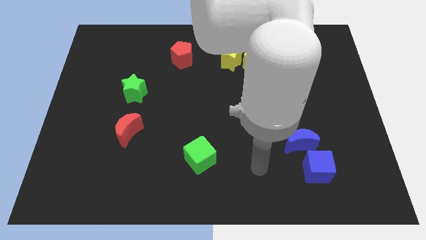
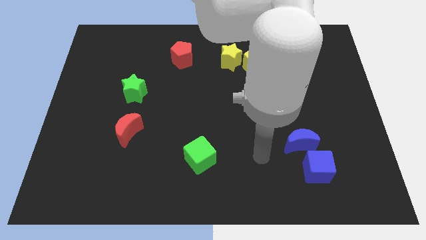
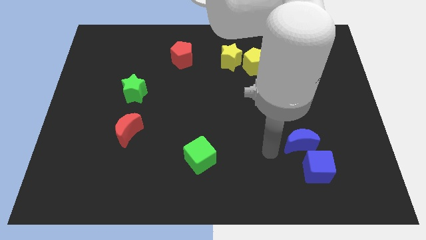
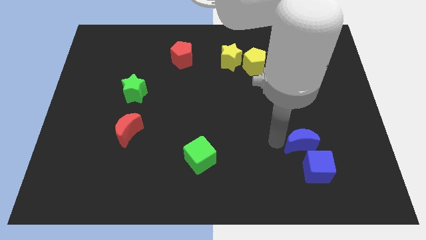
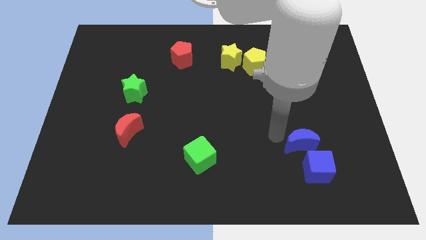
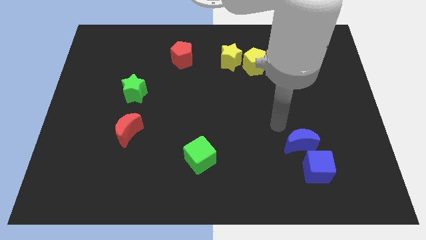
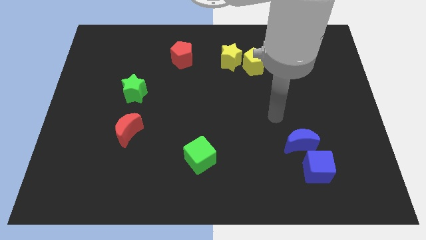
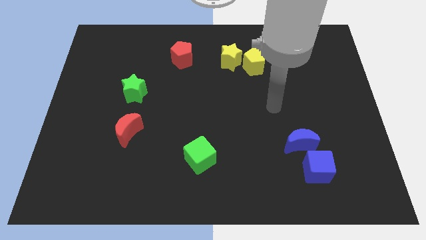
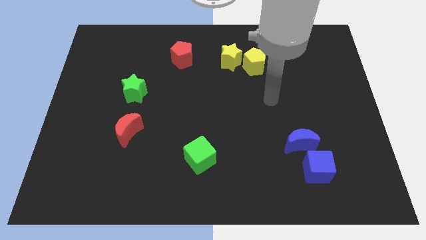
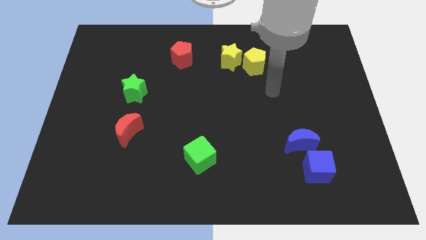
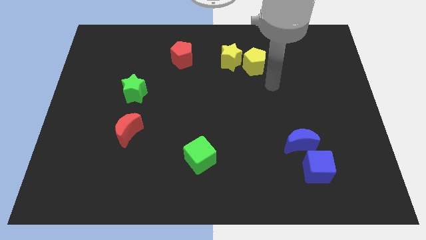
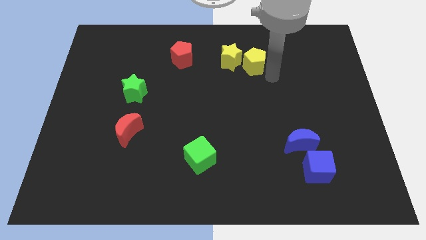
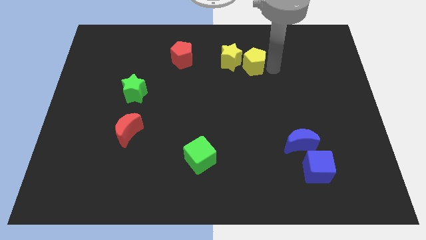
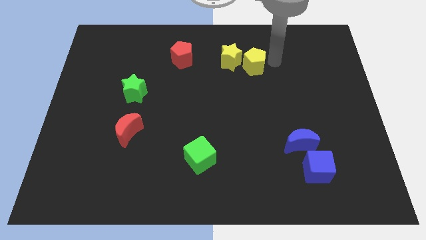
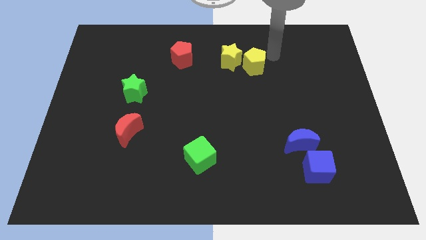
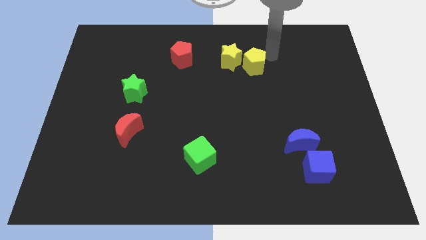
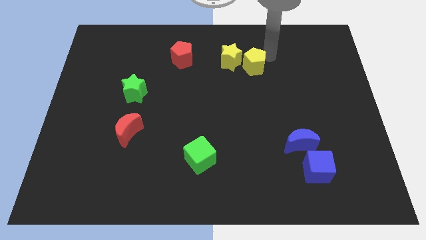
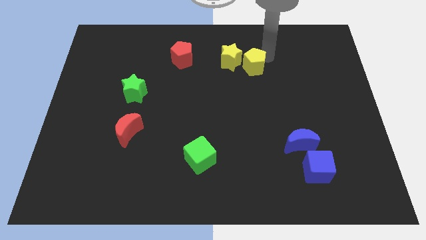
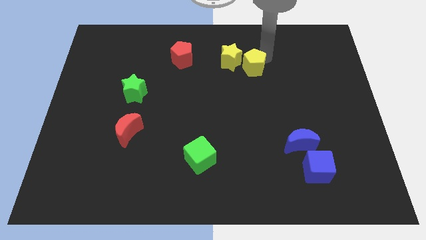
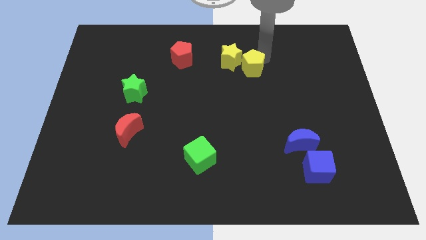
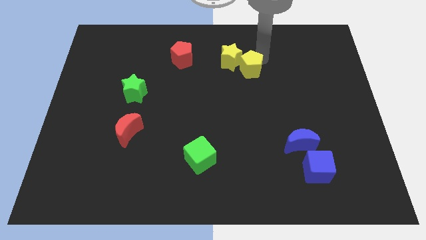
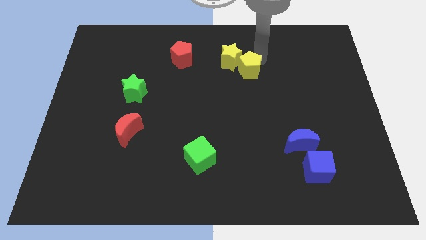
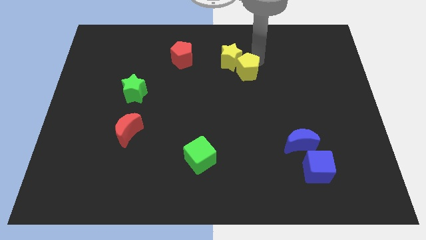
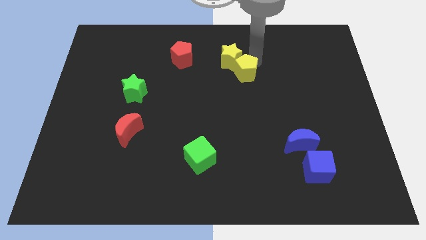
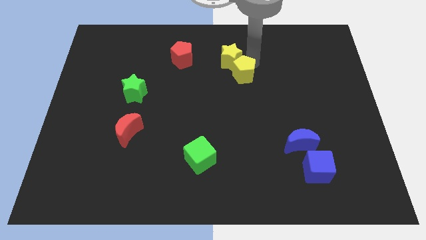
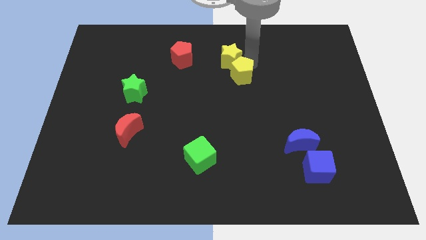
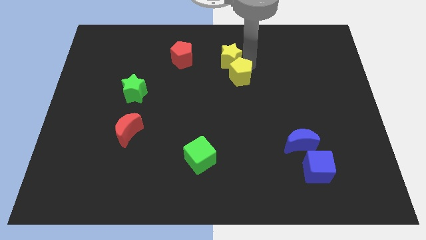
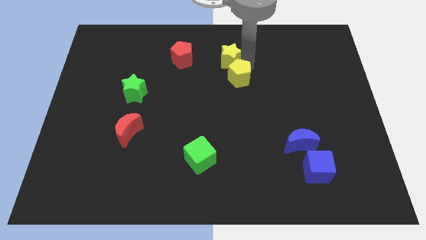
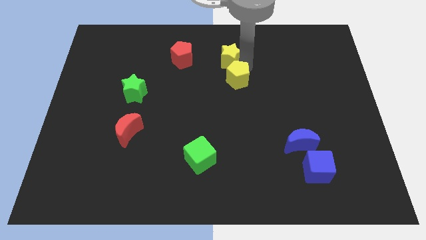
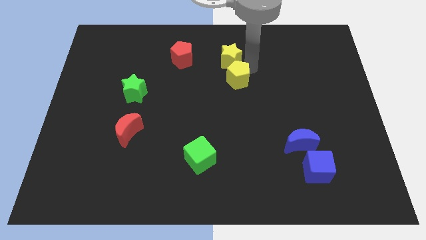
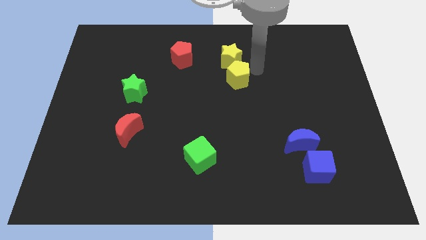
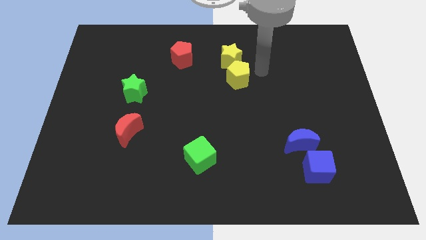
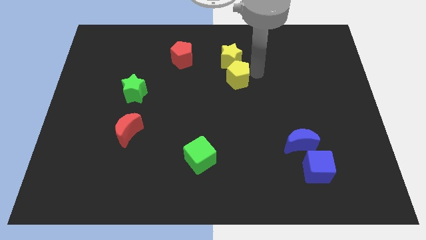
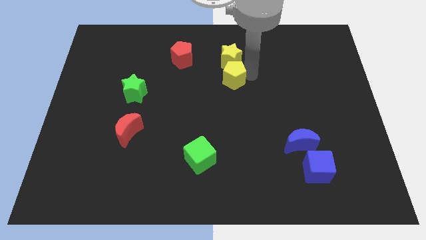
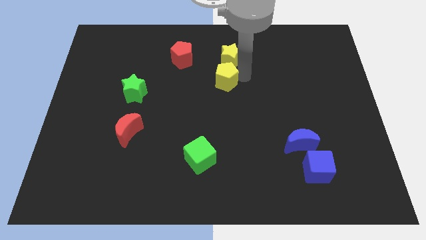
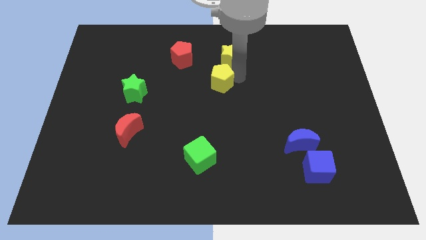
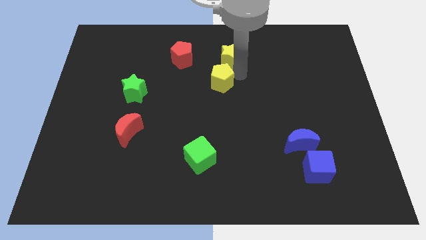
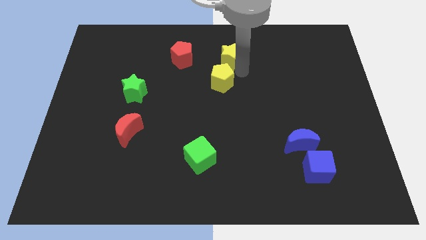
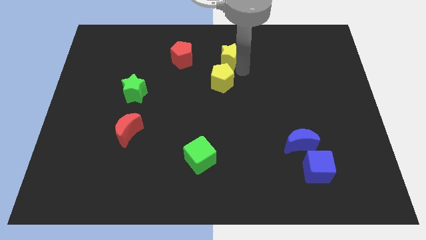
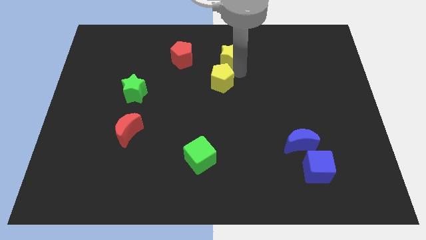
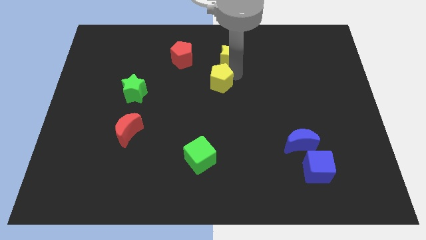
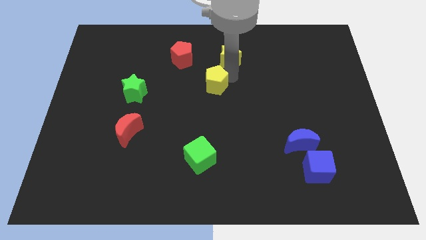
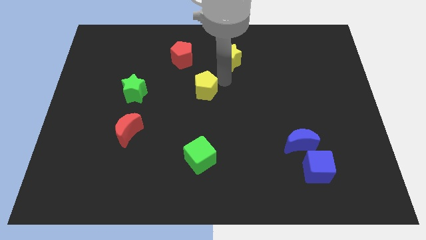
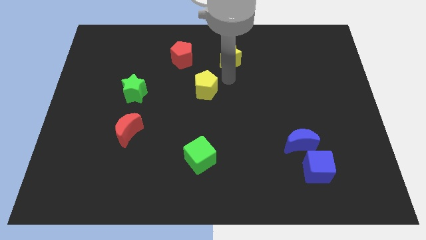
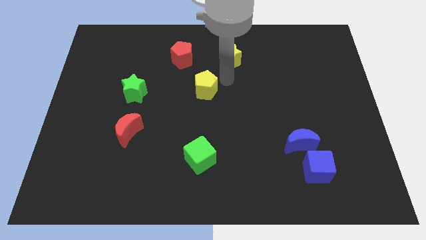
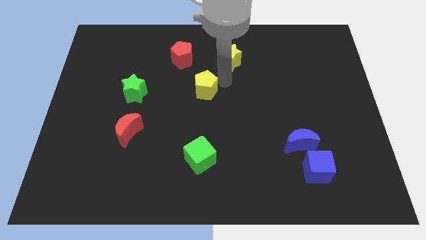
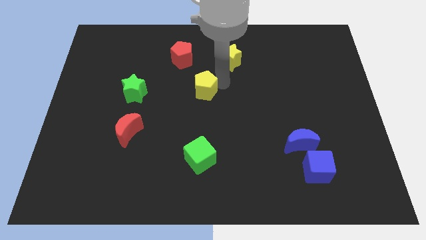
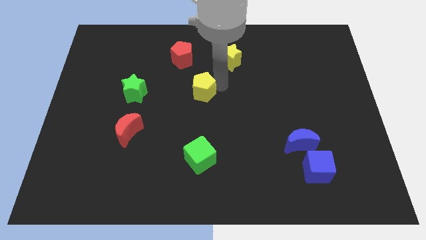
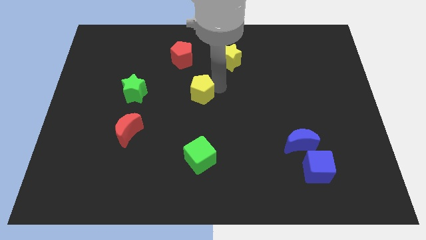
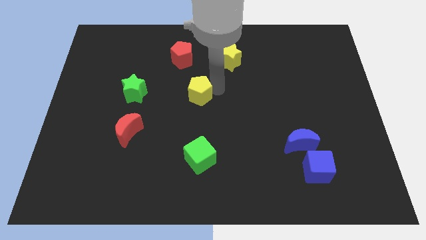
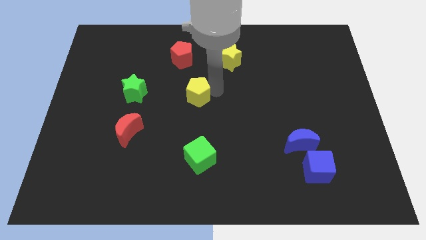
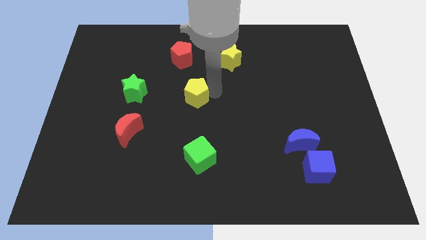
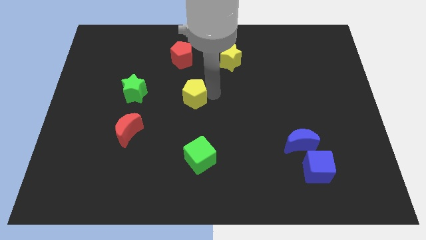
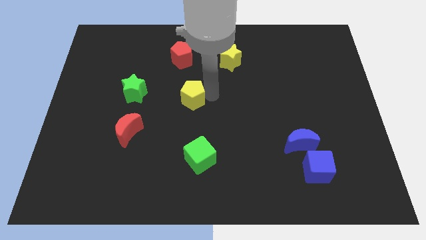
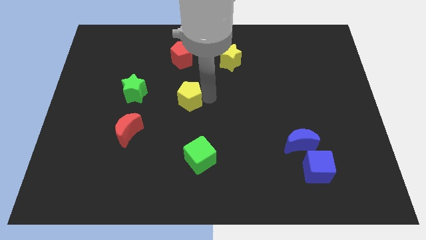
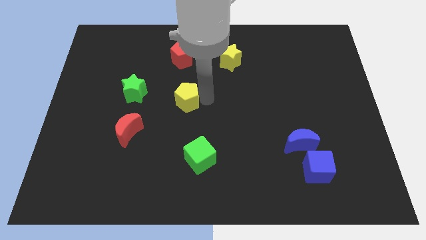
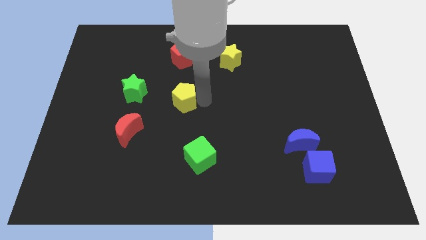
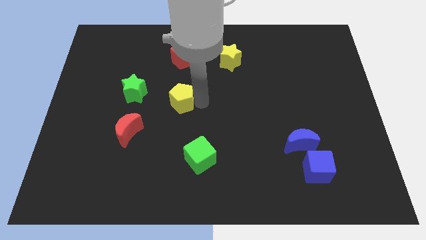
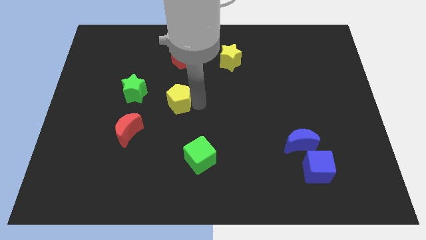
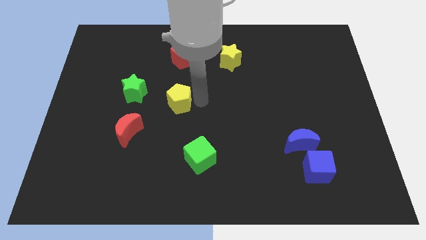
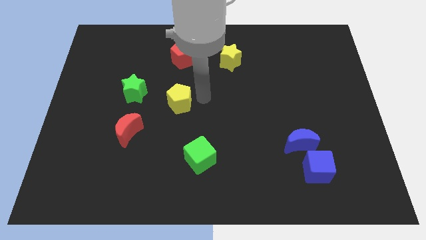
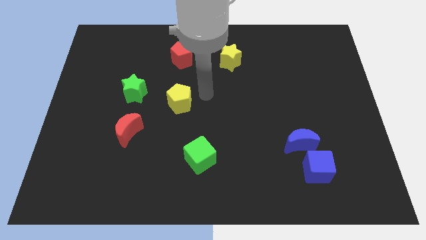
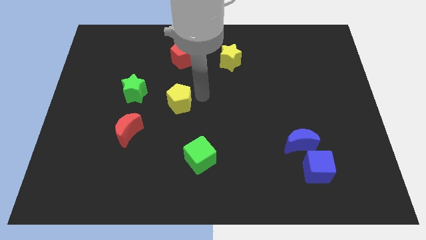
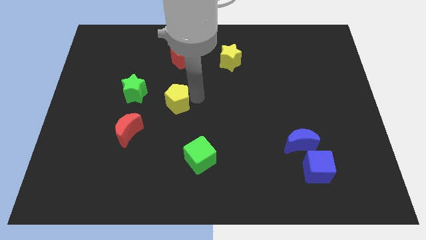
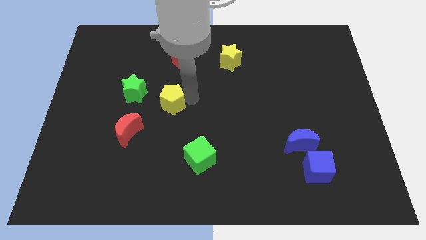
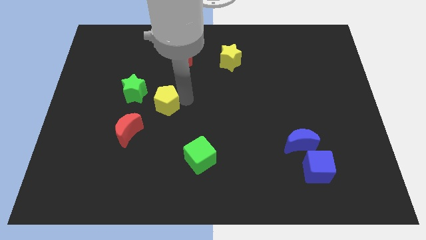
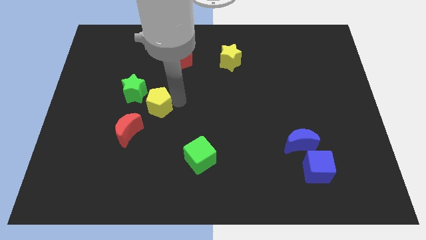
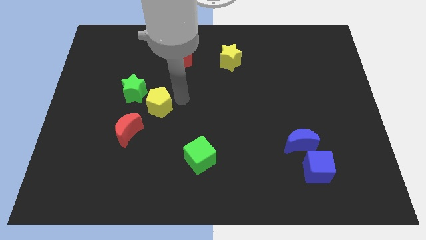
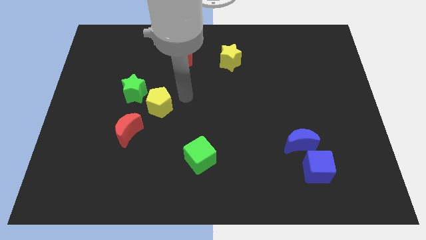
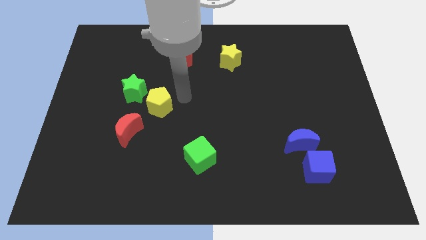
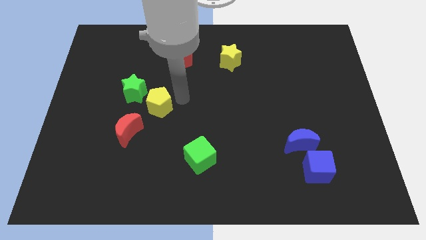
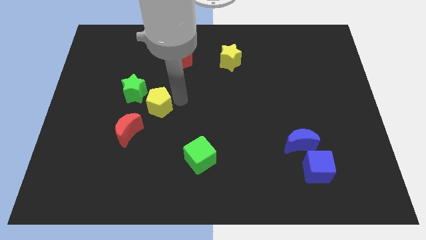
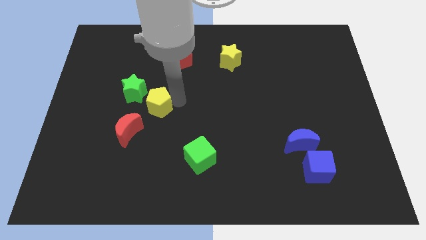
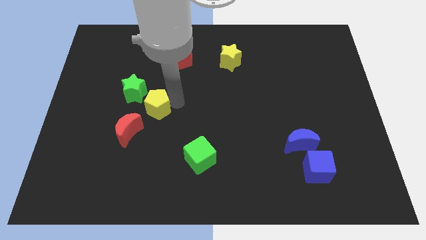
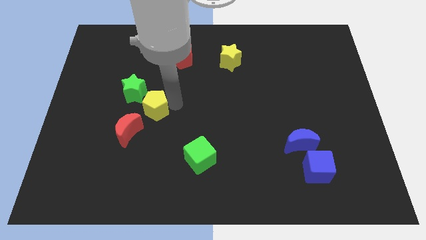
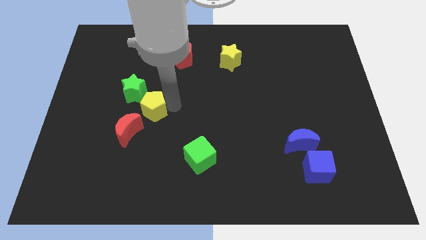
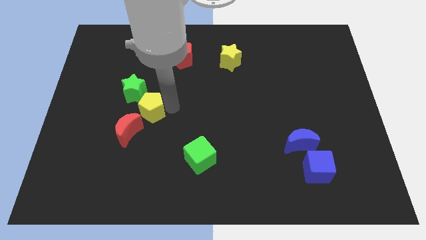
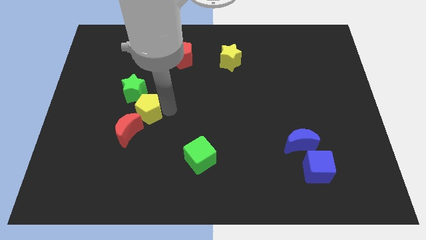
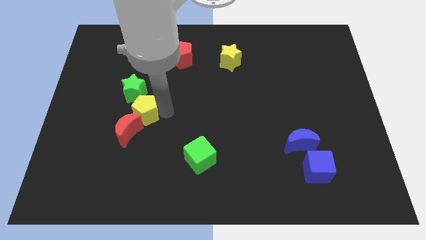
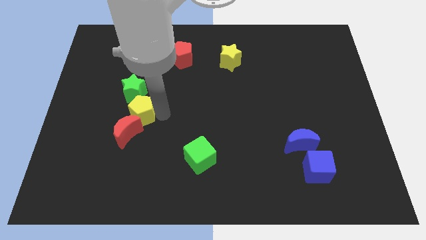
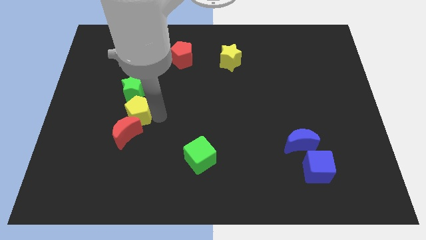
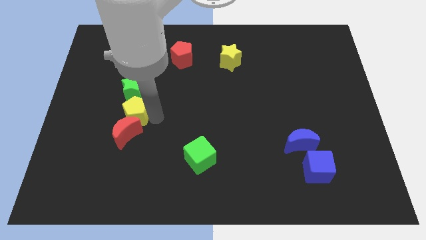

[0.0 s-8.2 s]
slide the yellow pentagon to the top left side of the red moon
